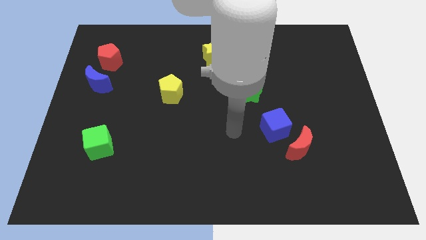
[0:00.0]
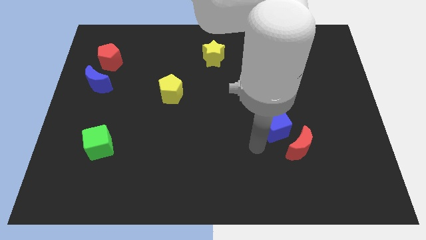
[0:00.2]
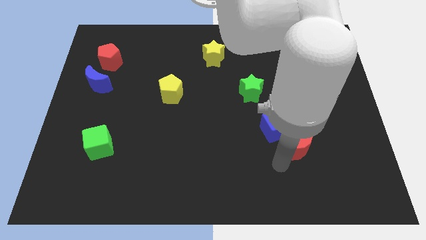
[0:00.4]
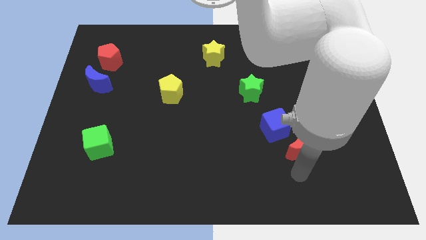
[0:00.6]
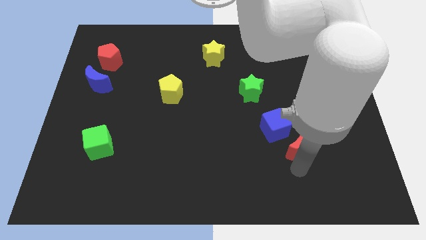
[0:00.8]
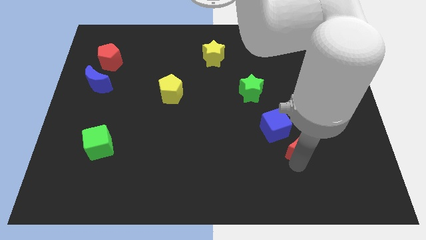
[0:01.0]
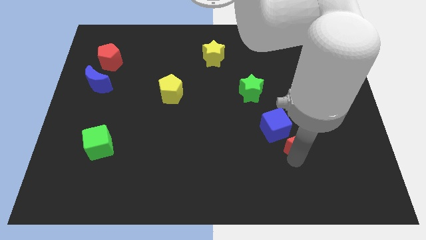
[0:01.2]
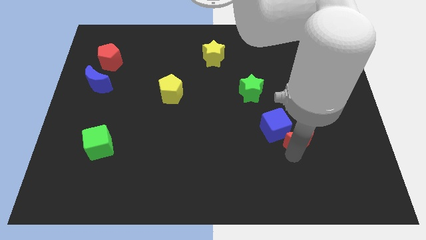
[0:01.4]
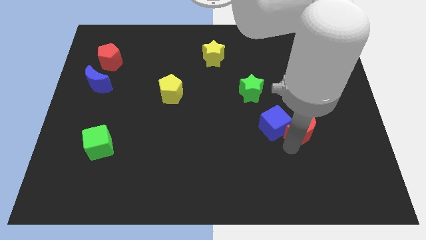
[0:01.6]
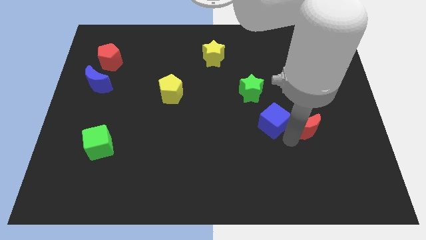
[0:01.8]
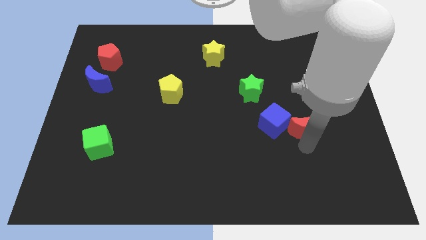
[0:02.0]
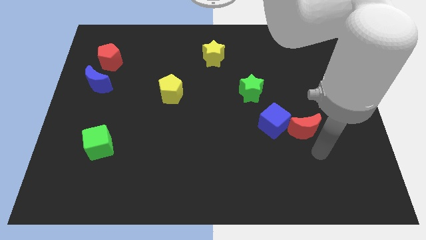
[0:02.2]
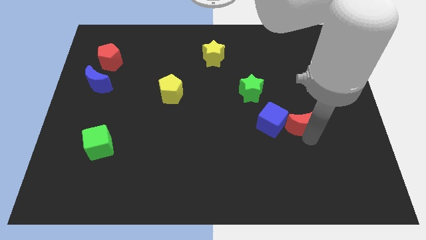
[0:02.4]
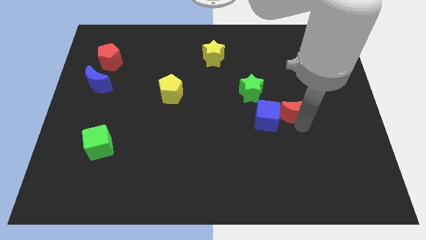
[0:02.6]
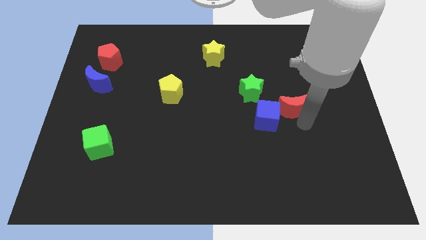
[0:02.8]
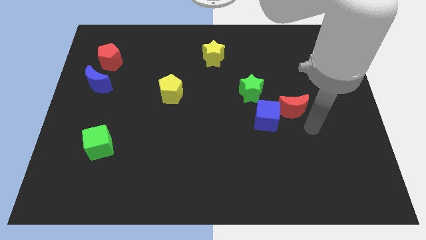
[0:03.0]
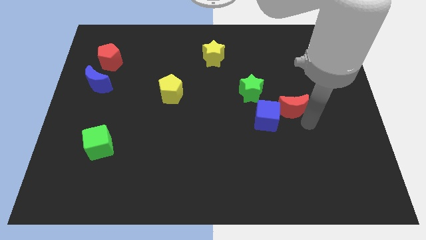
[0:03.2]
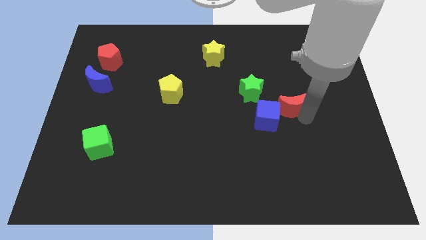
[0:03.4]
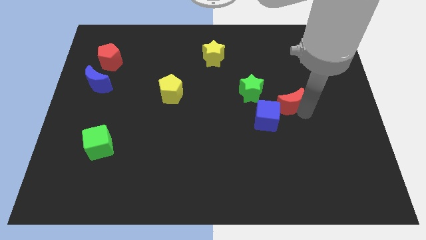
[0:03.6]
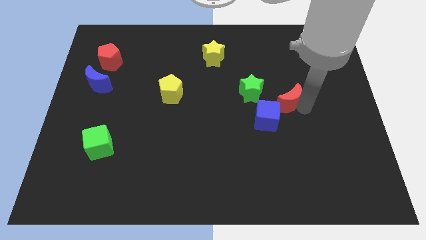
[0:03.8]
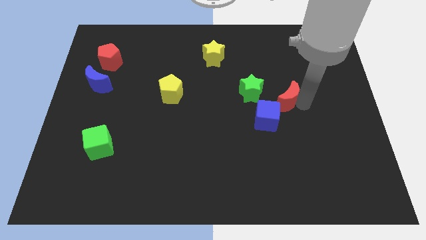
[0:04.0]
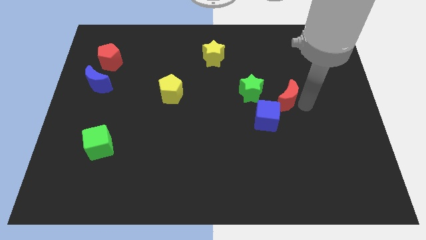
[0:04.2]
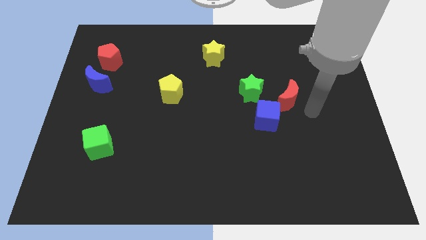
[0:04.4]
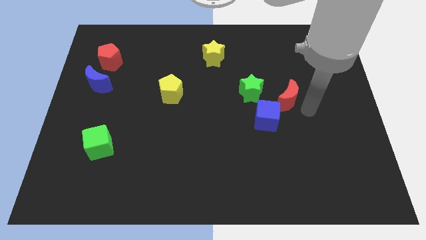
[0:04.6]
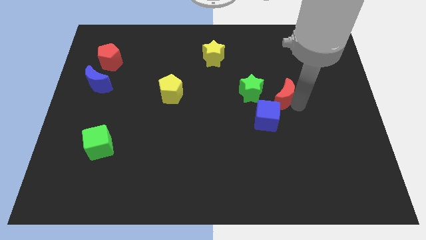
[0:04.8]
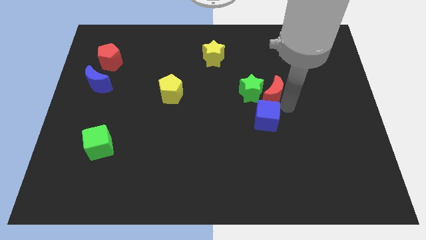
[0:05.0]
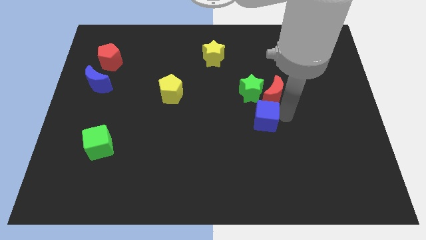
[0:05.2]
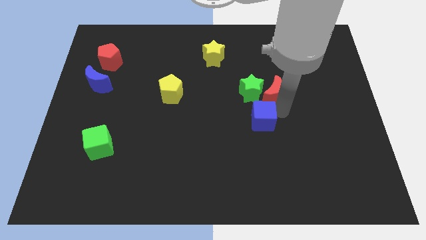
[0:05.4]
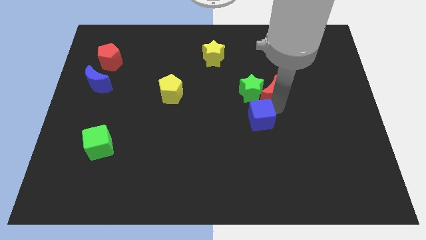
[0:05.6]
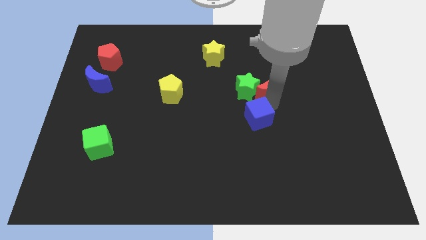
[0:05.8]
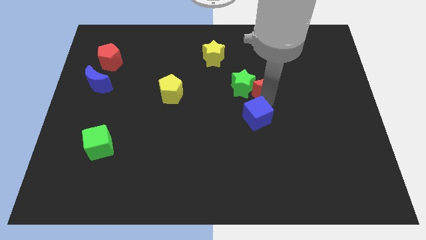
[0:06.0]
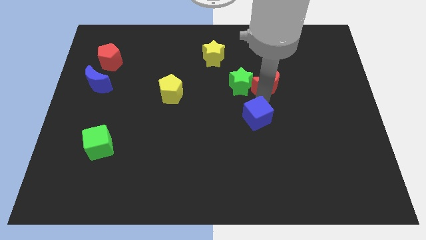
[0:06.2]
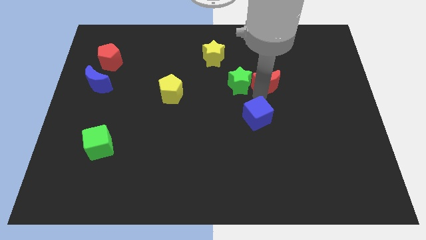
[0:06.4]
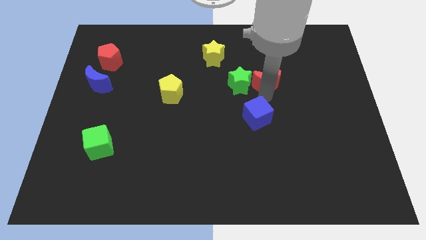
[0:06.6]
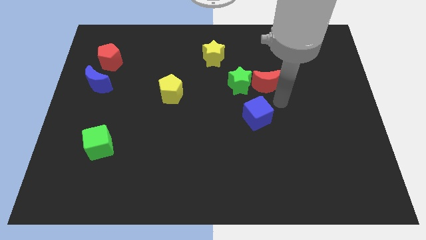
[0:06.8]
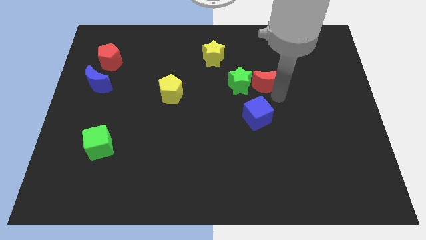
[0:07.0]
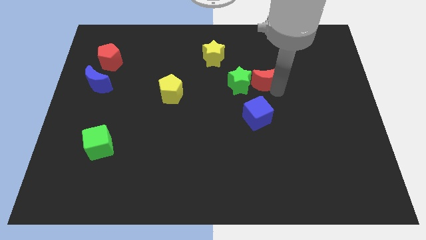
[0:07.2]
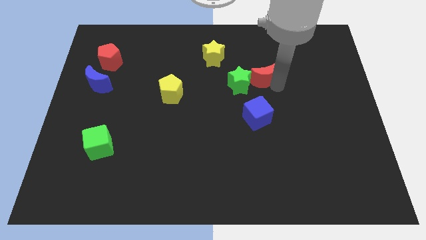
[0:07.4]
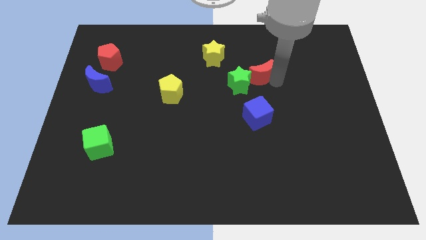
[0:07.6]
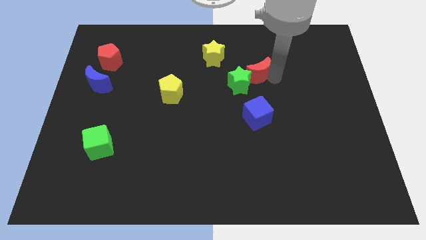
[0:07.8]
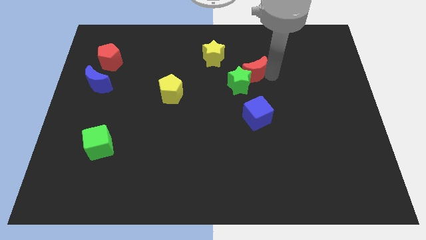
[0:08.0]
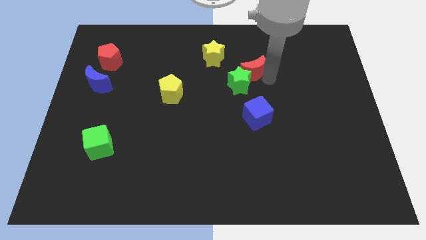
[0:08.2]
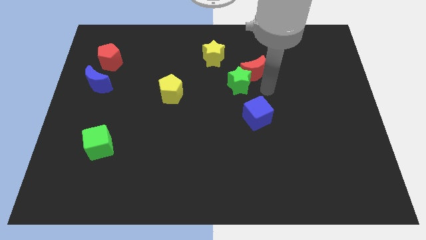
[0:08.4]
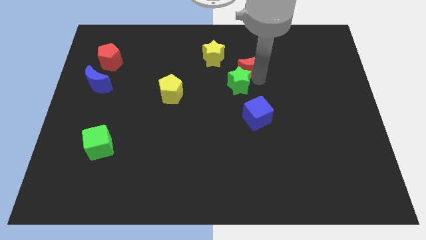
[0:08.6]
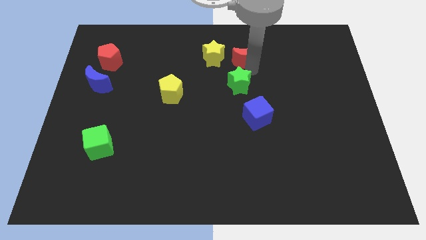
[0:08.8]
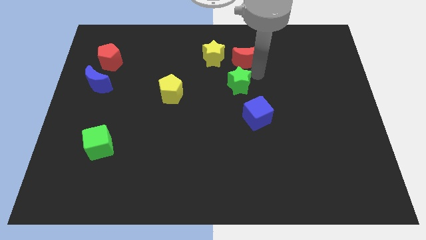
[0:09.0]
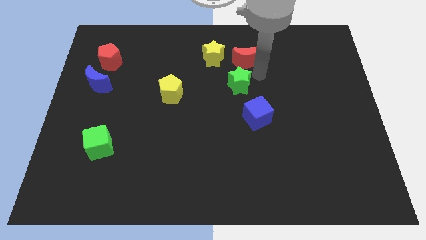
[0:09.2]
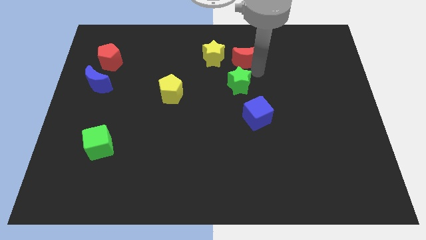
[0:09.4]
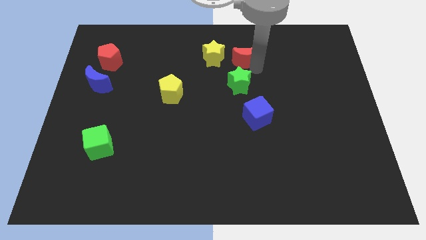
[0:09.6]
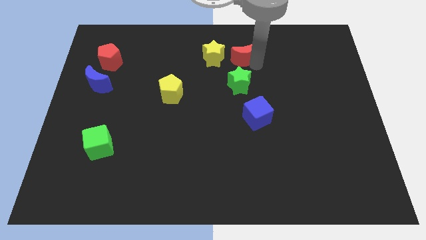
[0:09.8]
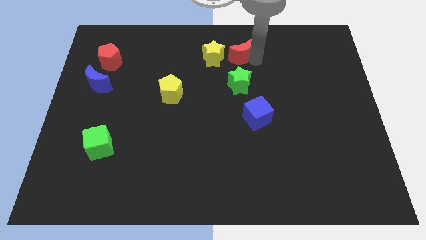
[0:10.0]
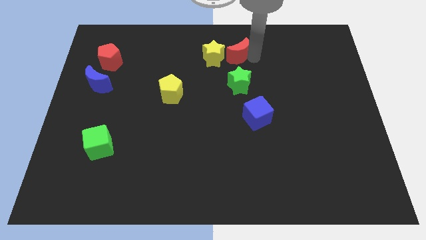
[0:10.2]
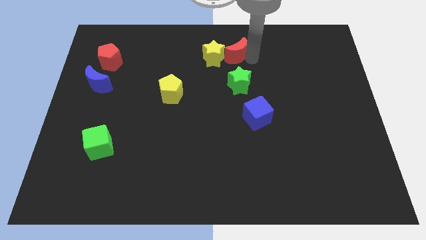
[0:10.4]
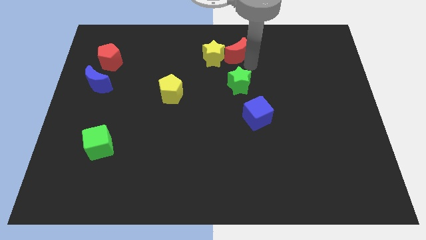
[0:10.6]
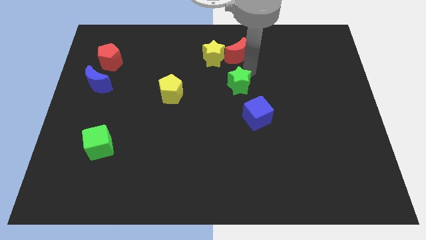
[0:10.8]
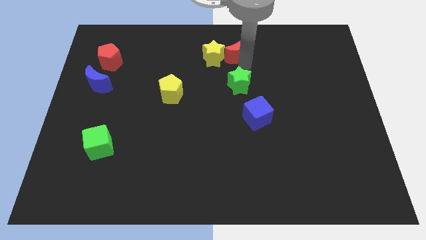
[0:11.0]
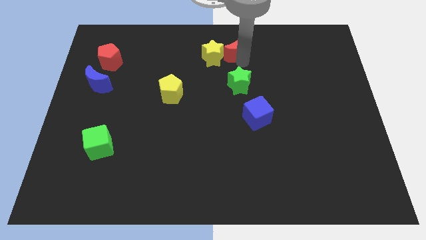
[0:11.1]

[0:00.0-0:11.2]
slide the red moon to the top

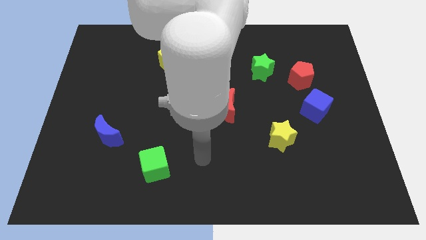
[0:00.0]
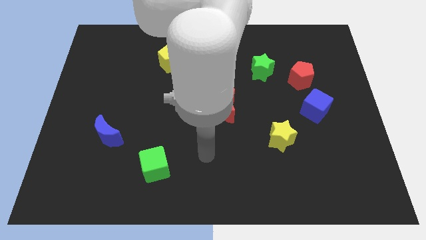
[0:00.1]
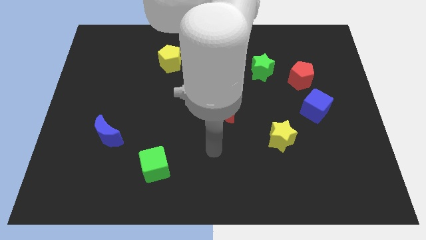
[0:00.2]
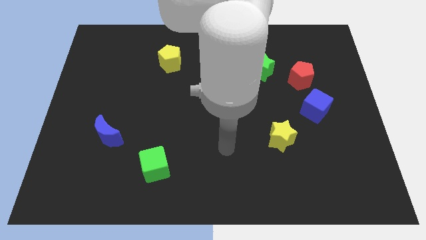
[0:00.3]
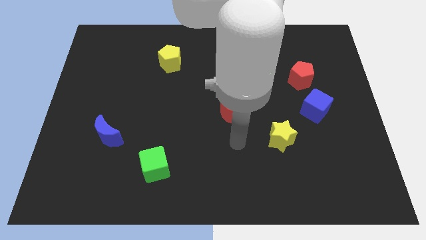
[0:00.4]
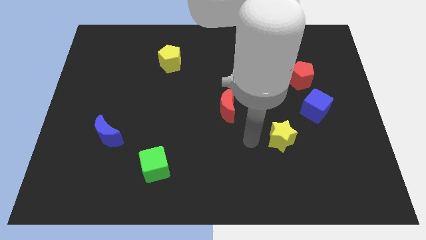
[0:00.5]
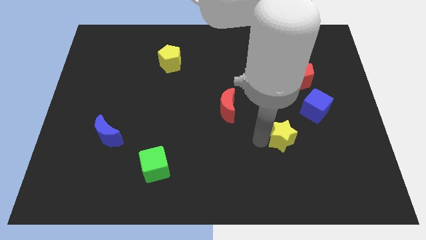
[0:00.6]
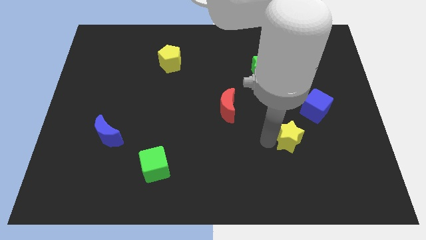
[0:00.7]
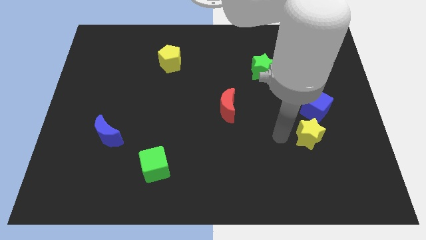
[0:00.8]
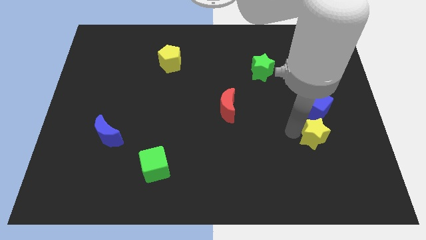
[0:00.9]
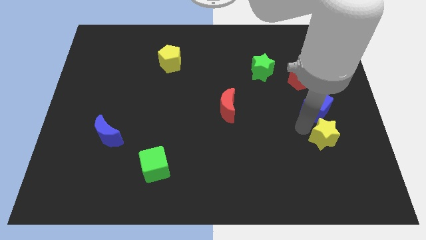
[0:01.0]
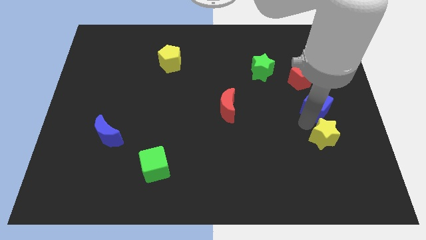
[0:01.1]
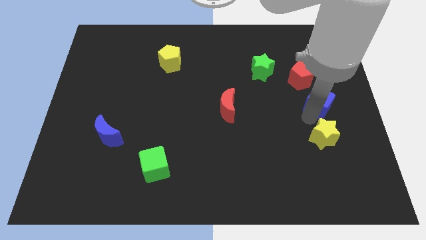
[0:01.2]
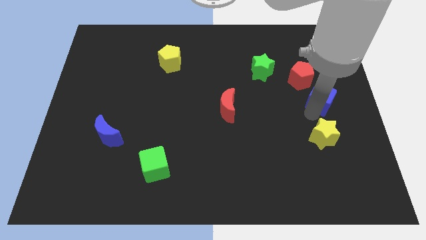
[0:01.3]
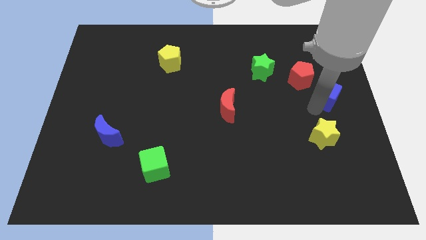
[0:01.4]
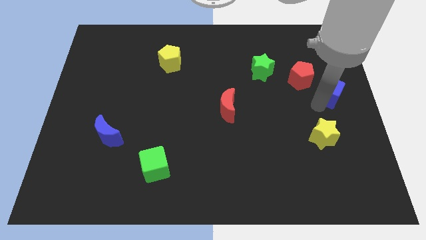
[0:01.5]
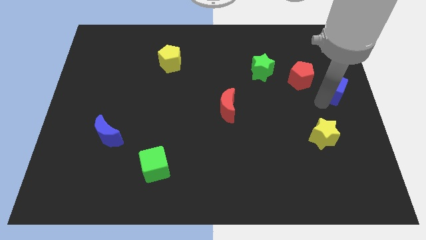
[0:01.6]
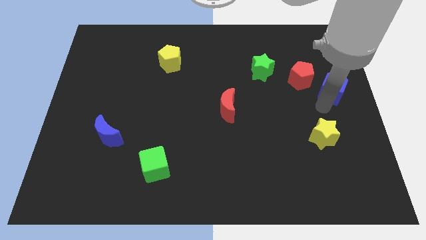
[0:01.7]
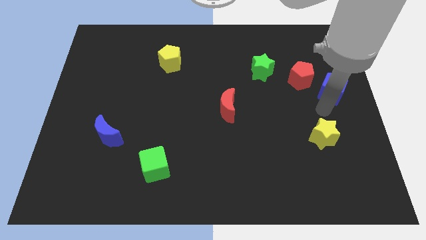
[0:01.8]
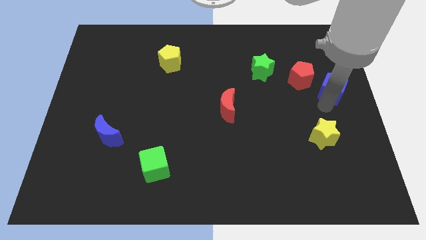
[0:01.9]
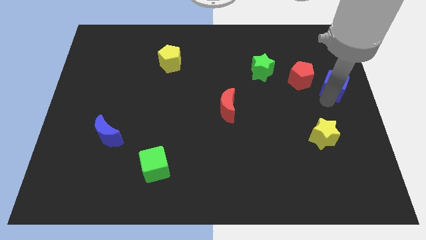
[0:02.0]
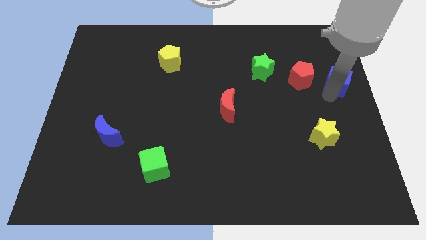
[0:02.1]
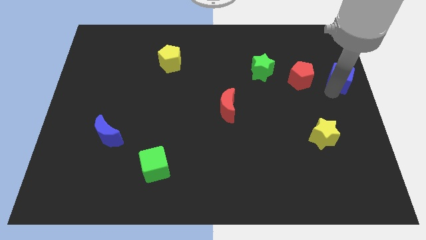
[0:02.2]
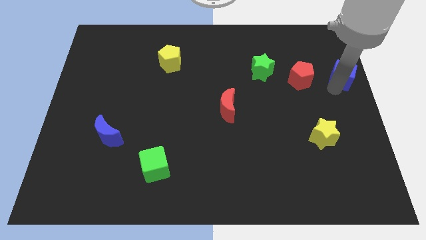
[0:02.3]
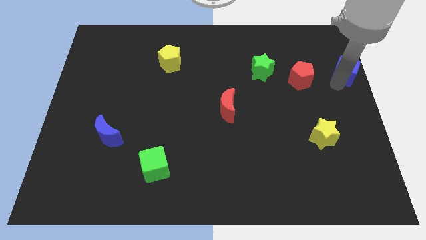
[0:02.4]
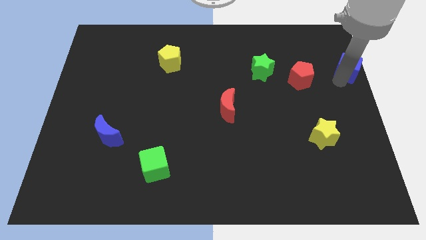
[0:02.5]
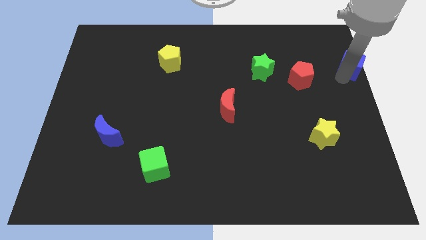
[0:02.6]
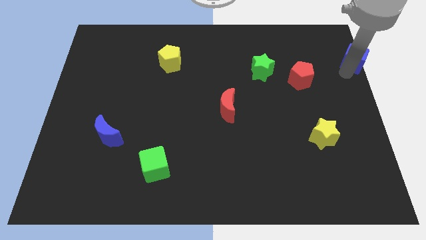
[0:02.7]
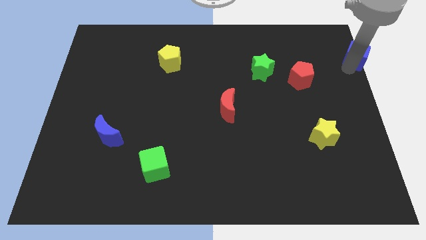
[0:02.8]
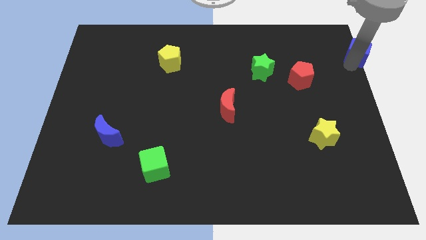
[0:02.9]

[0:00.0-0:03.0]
put the blue cube to the top right corner
